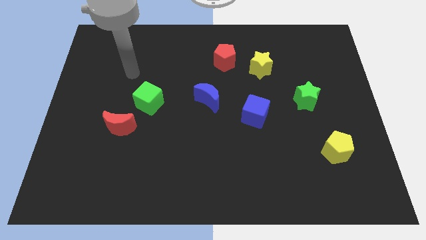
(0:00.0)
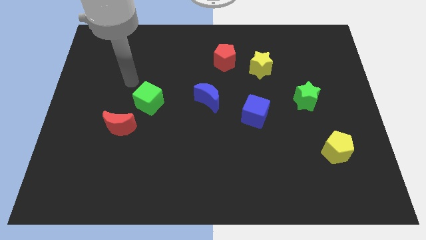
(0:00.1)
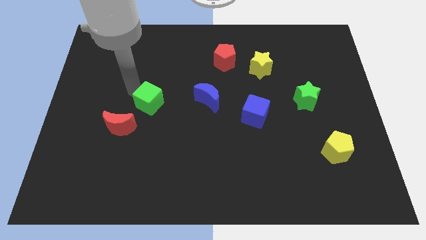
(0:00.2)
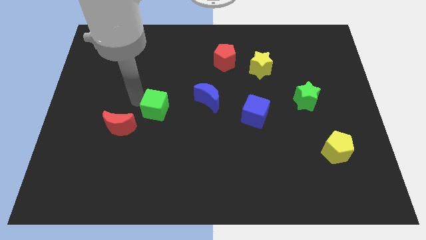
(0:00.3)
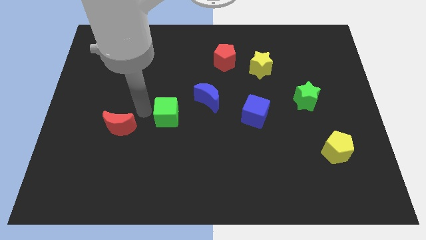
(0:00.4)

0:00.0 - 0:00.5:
move the red moon away from the green cube

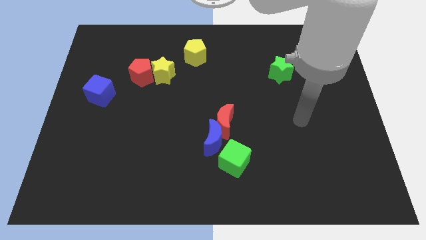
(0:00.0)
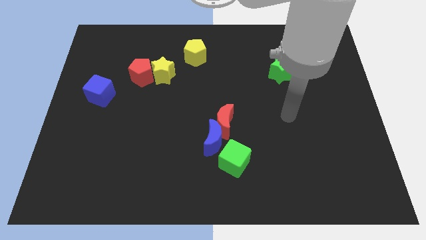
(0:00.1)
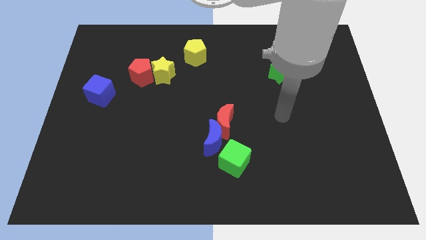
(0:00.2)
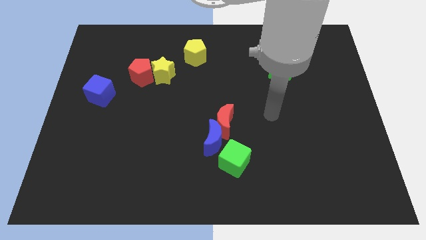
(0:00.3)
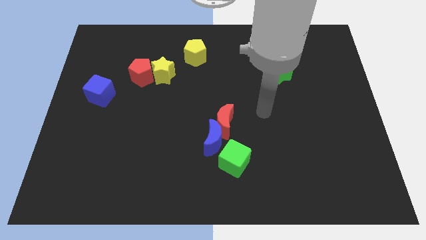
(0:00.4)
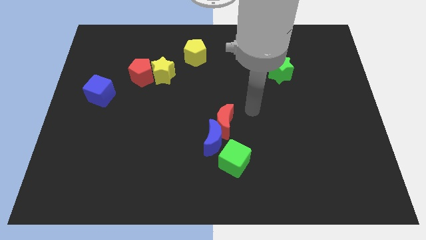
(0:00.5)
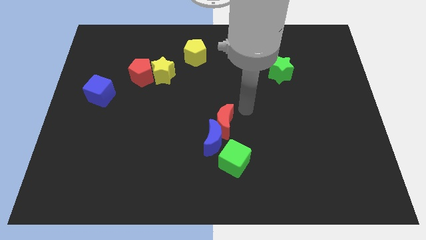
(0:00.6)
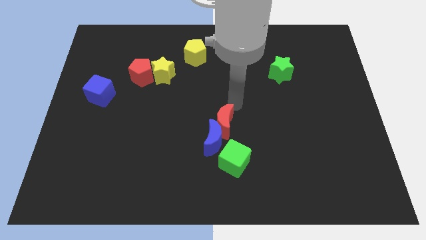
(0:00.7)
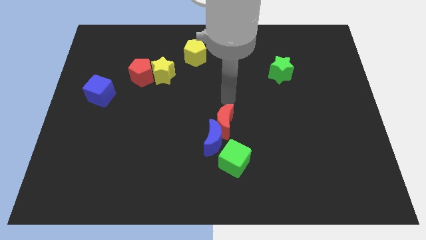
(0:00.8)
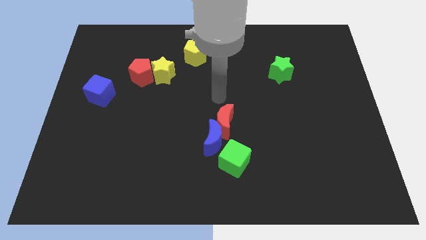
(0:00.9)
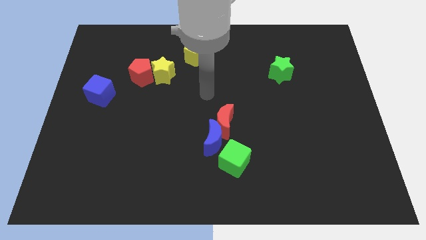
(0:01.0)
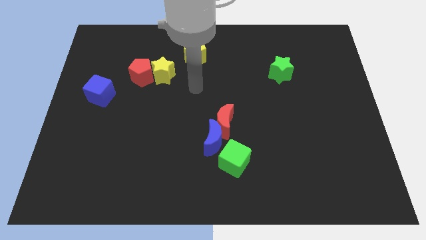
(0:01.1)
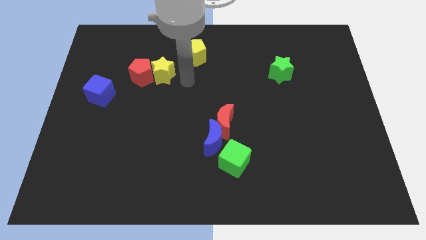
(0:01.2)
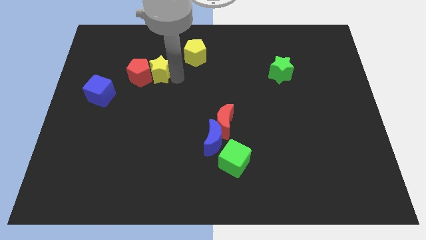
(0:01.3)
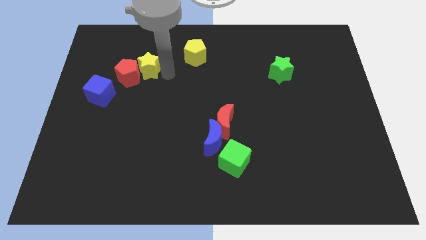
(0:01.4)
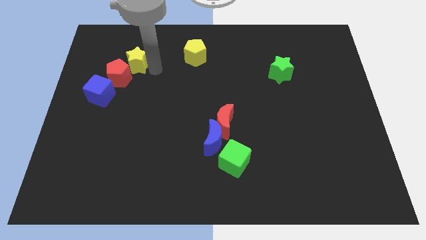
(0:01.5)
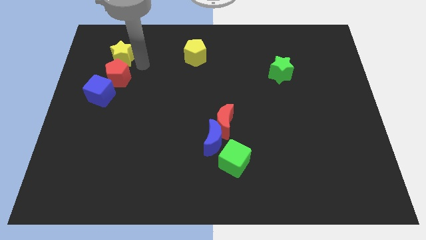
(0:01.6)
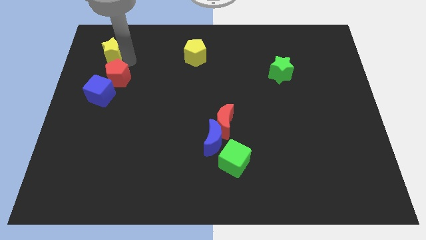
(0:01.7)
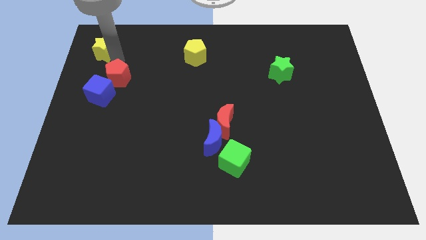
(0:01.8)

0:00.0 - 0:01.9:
pull the red pentagon apart from the yellow star

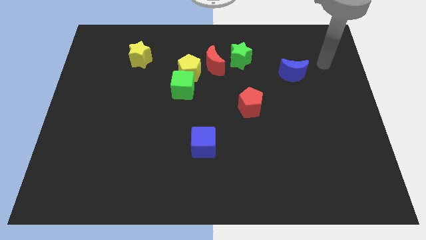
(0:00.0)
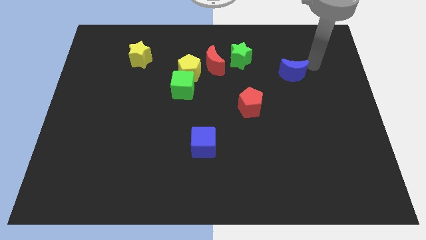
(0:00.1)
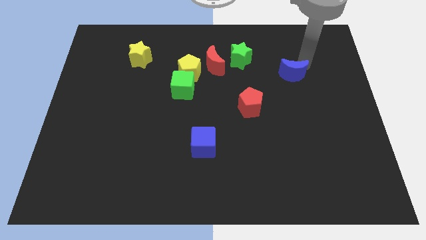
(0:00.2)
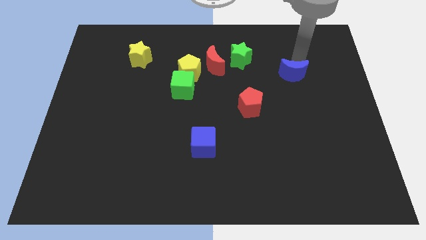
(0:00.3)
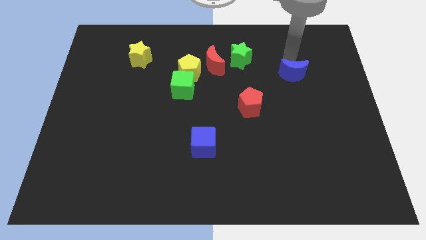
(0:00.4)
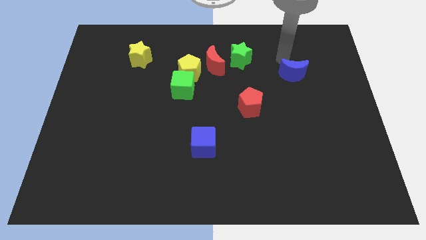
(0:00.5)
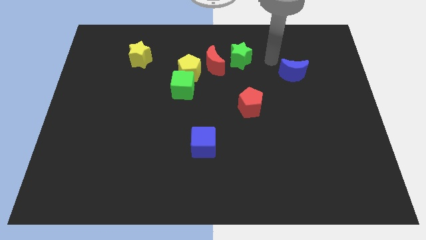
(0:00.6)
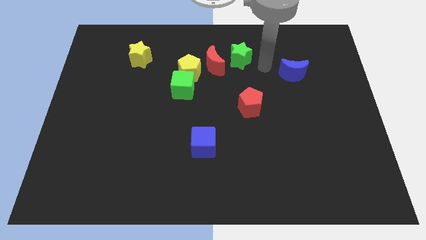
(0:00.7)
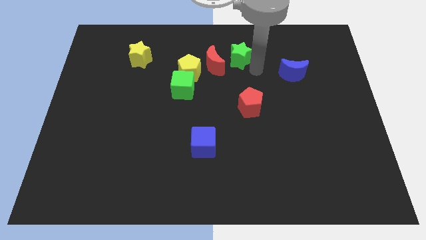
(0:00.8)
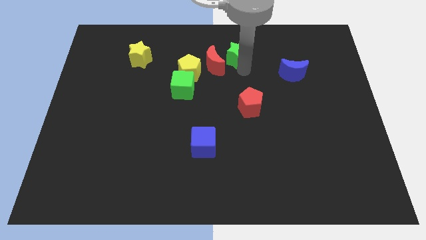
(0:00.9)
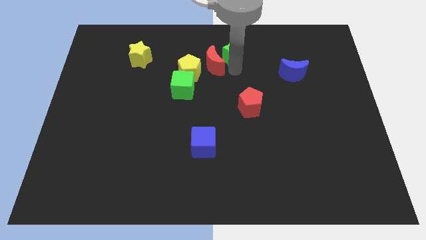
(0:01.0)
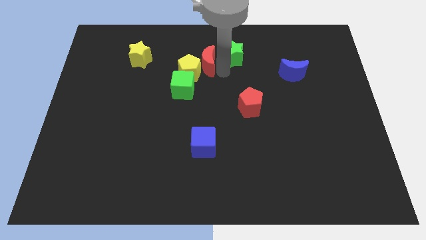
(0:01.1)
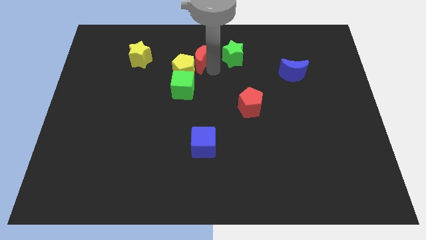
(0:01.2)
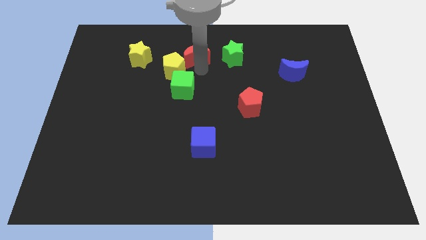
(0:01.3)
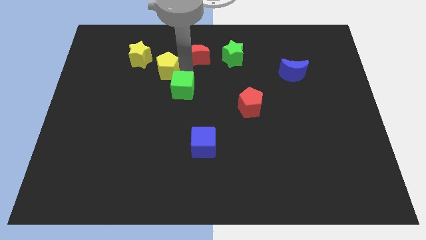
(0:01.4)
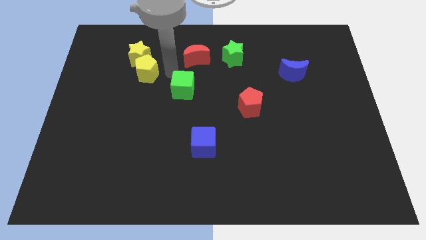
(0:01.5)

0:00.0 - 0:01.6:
pull the green cube apart from the yellow pentagon

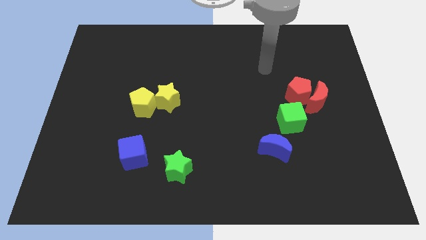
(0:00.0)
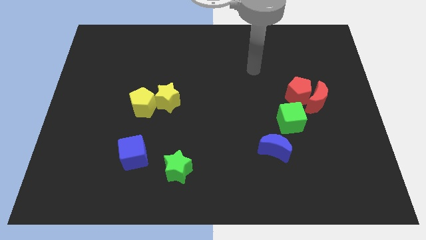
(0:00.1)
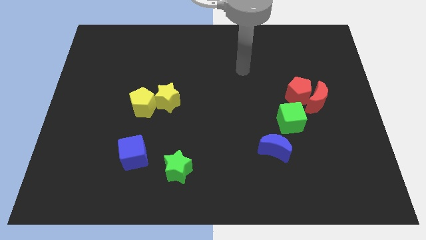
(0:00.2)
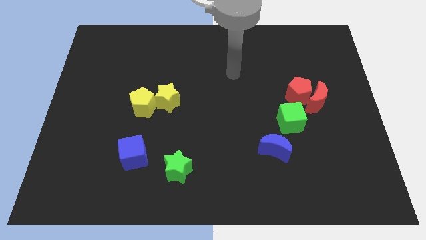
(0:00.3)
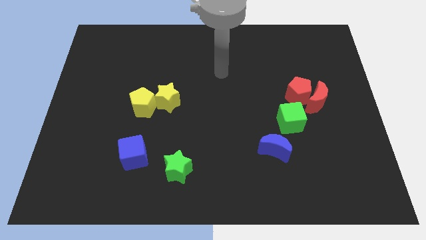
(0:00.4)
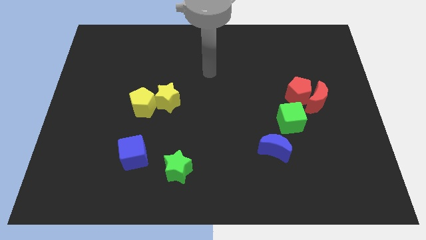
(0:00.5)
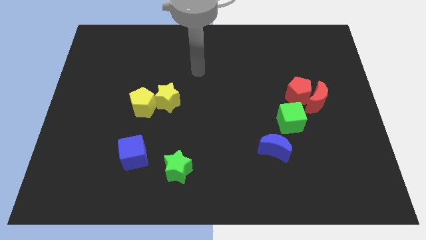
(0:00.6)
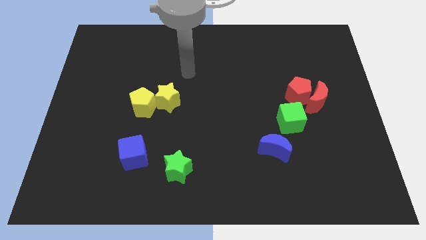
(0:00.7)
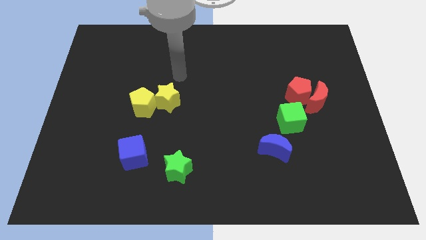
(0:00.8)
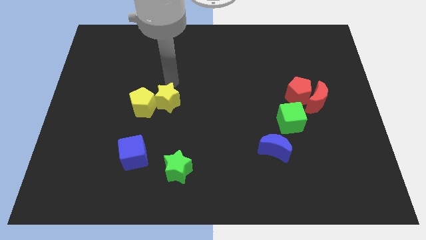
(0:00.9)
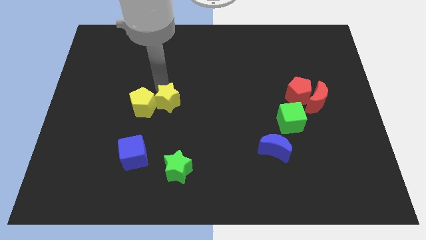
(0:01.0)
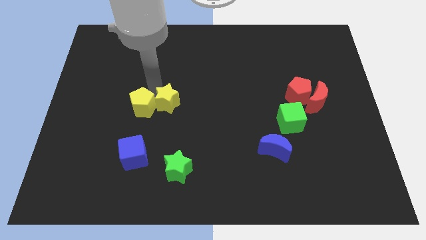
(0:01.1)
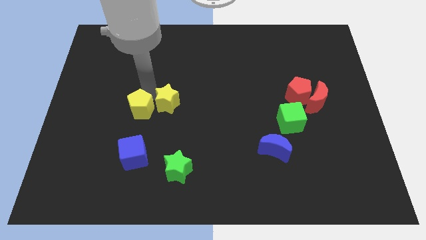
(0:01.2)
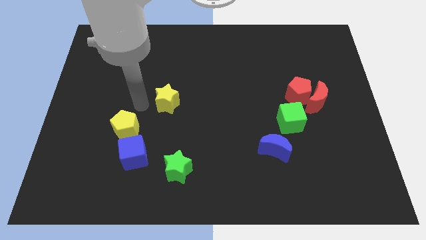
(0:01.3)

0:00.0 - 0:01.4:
move the yellow star away from the yellow pentagon

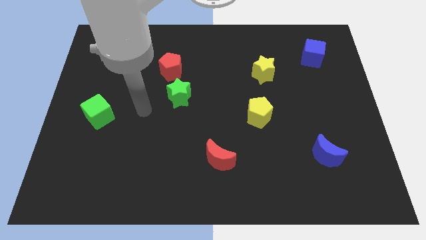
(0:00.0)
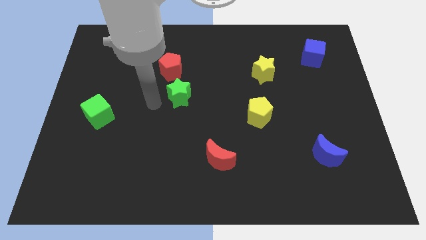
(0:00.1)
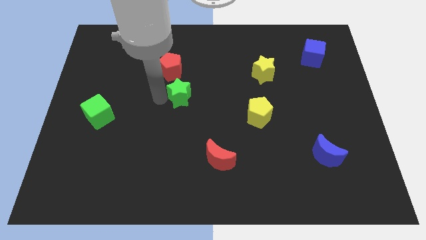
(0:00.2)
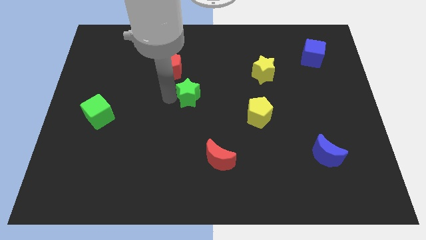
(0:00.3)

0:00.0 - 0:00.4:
pull the red pentagon apart from the green star

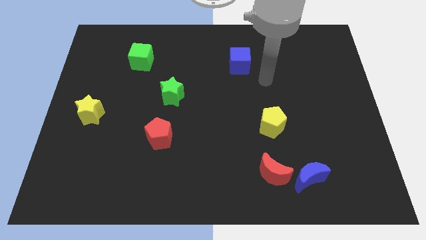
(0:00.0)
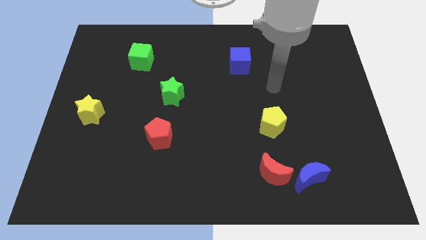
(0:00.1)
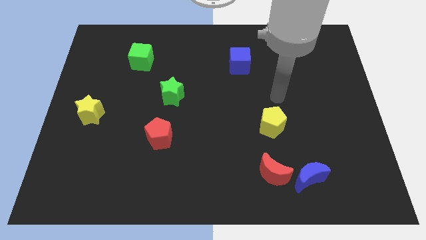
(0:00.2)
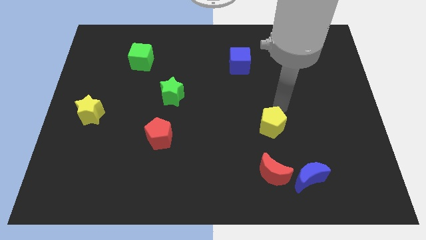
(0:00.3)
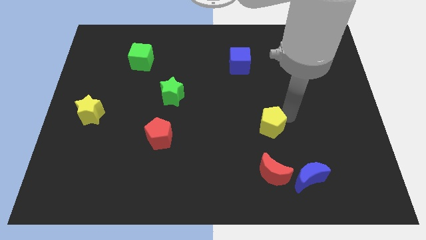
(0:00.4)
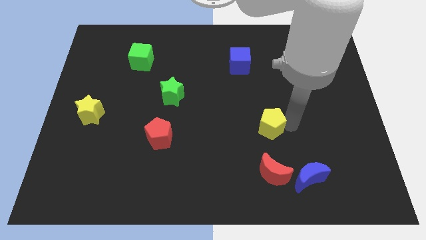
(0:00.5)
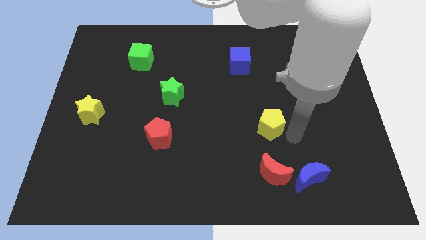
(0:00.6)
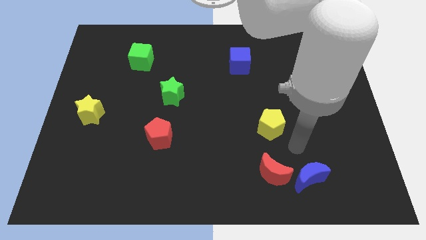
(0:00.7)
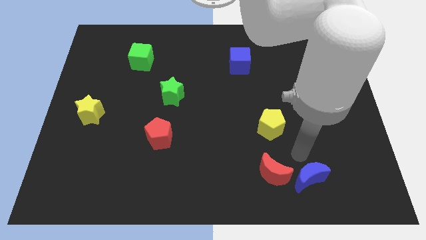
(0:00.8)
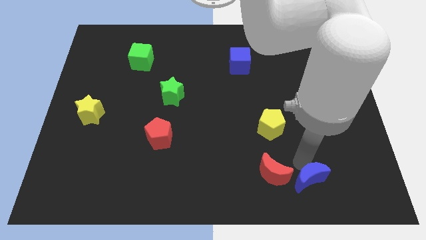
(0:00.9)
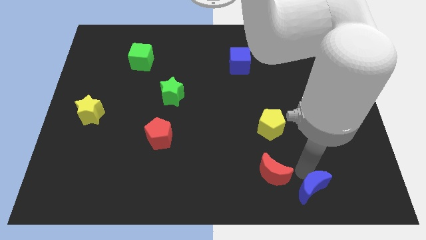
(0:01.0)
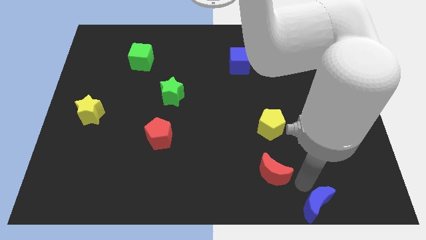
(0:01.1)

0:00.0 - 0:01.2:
move the red moon away from the blue moon

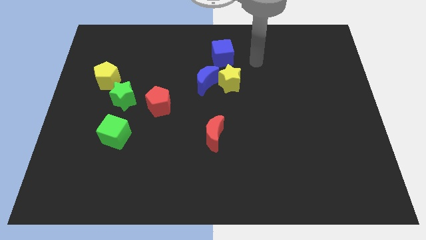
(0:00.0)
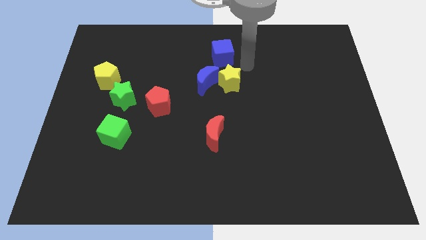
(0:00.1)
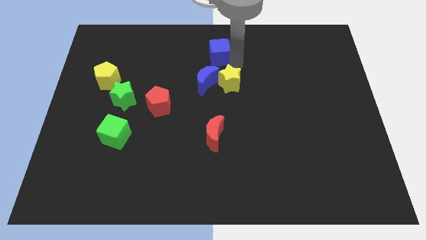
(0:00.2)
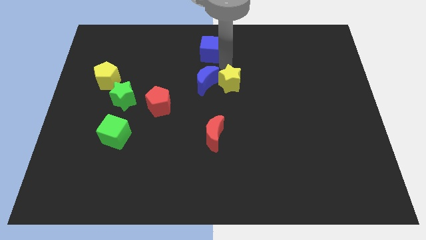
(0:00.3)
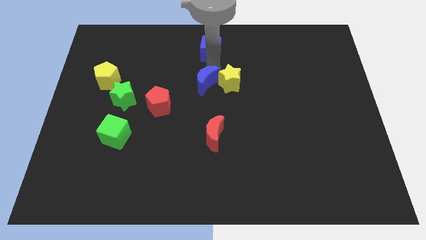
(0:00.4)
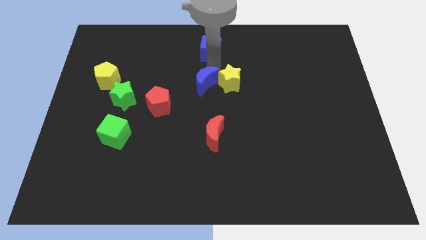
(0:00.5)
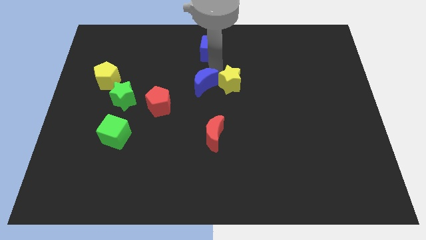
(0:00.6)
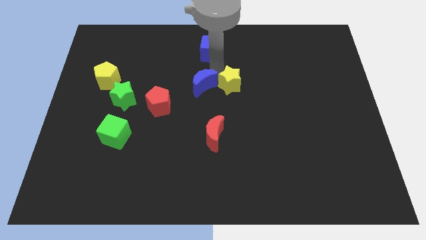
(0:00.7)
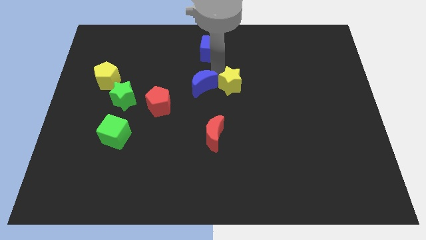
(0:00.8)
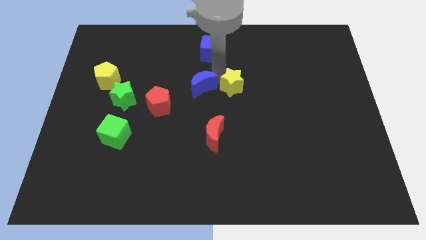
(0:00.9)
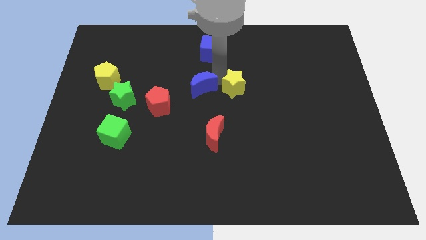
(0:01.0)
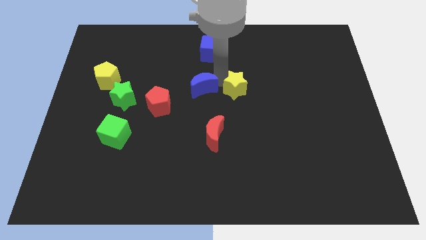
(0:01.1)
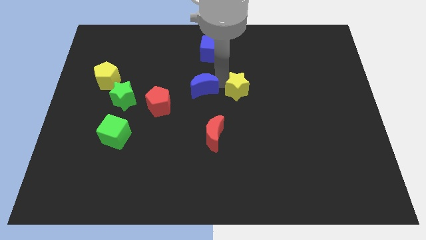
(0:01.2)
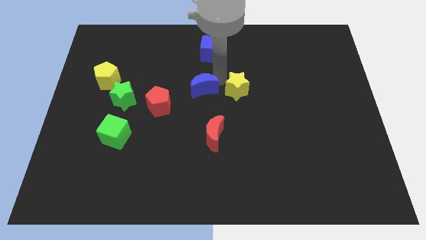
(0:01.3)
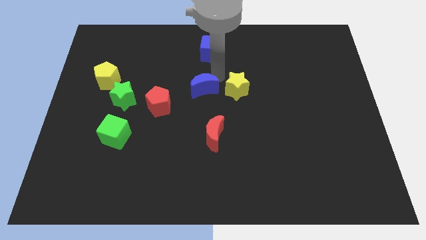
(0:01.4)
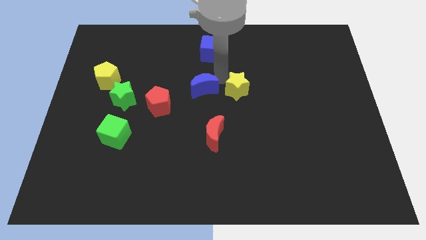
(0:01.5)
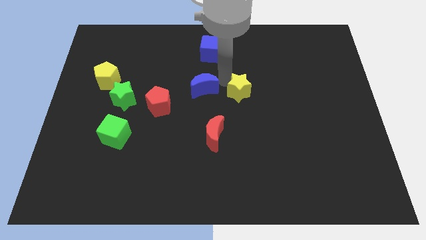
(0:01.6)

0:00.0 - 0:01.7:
pull the yellow star apart from the blue moon and blue cube

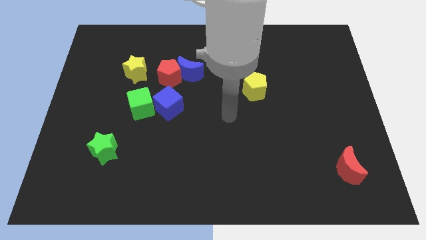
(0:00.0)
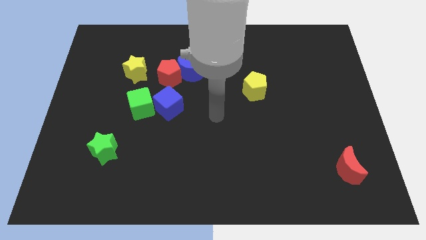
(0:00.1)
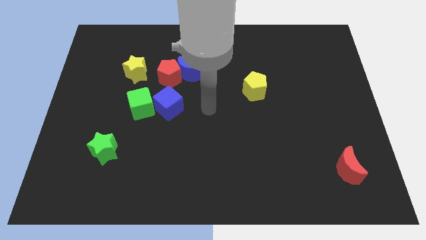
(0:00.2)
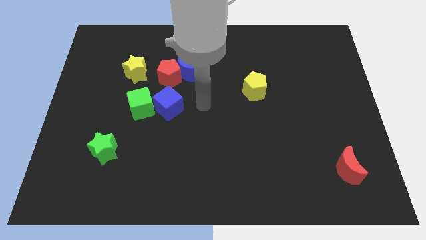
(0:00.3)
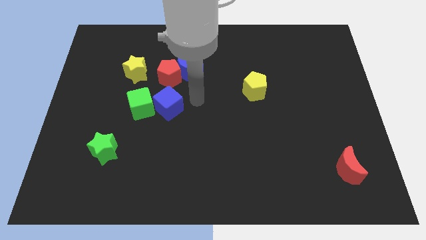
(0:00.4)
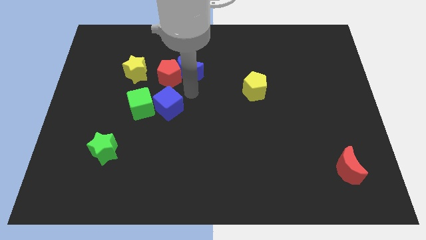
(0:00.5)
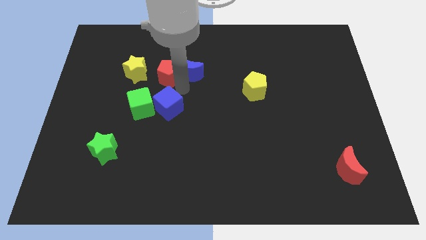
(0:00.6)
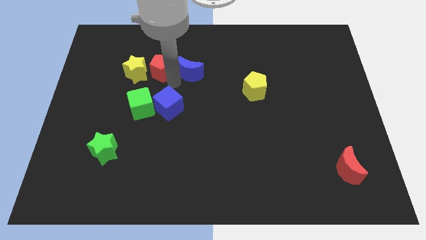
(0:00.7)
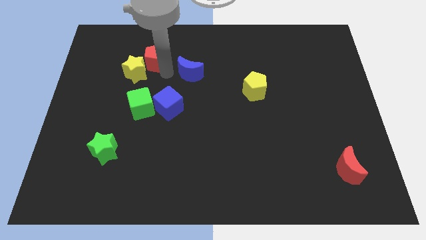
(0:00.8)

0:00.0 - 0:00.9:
move the blue moon away from the red pentagon
